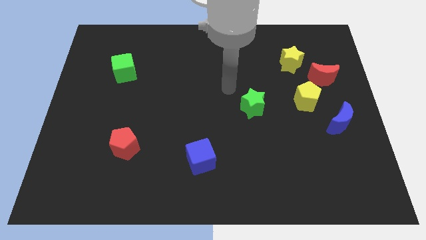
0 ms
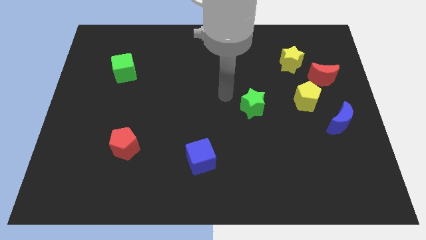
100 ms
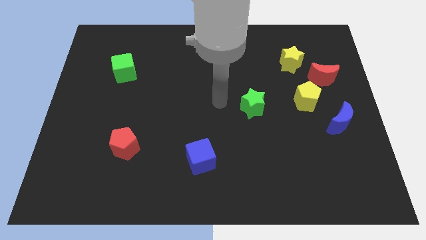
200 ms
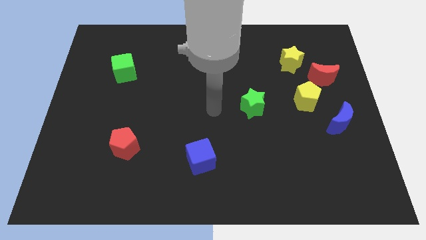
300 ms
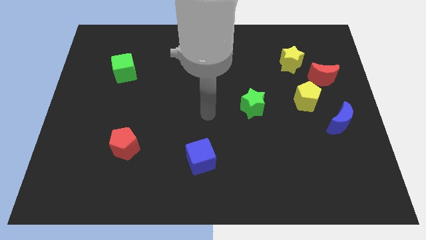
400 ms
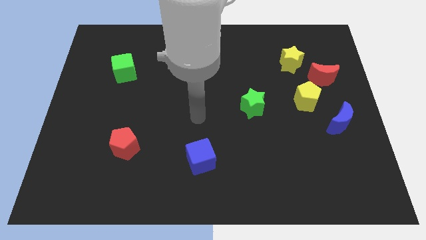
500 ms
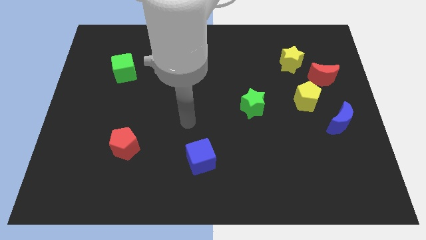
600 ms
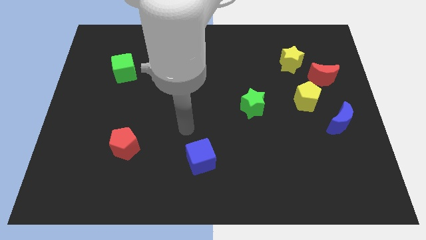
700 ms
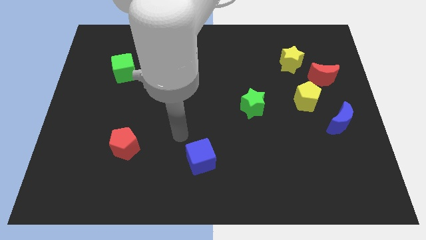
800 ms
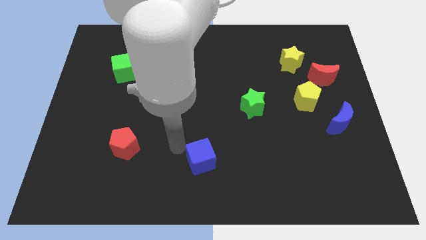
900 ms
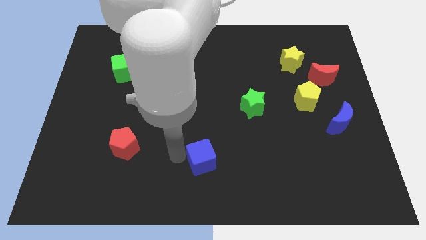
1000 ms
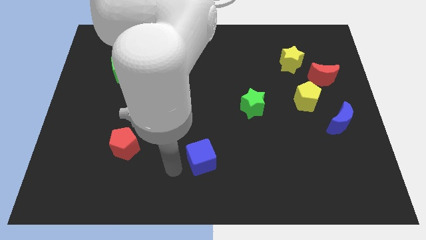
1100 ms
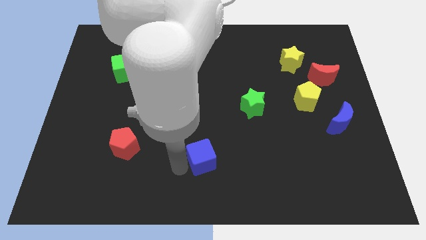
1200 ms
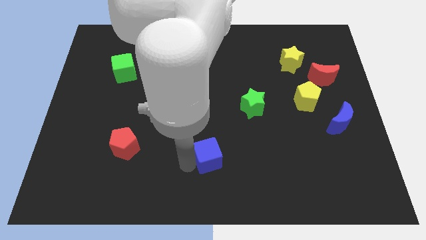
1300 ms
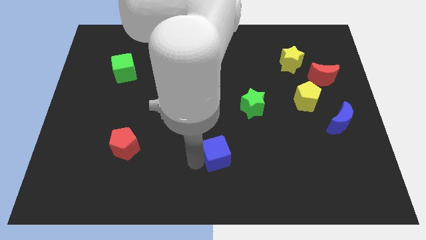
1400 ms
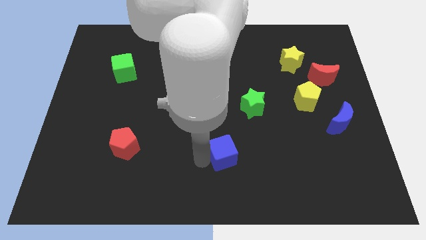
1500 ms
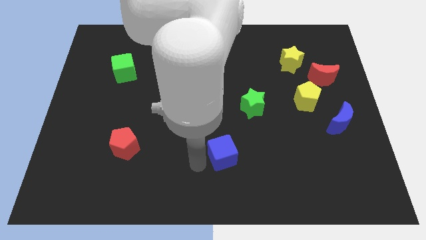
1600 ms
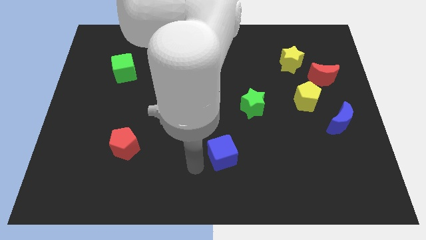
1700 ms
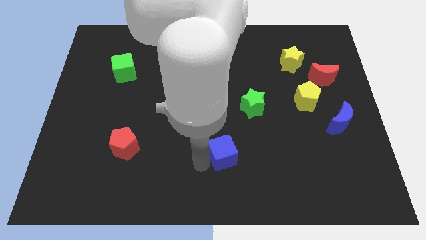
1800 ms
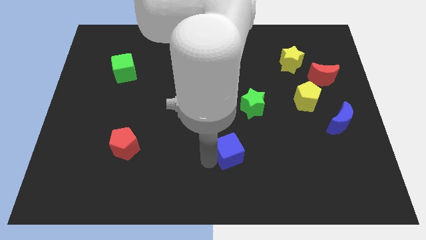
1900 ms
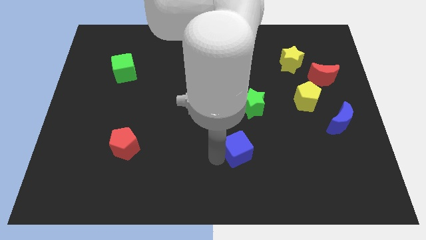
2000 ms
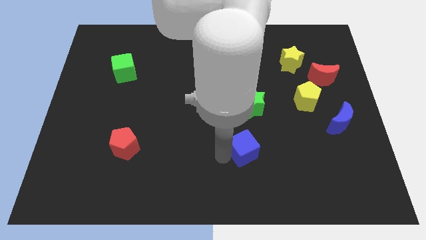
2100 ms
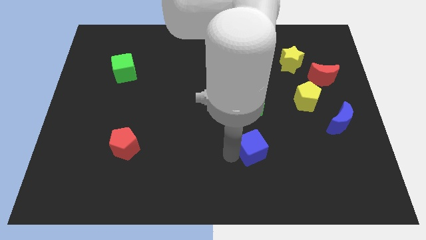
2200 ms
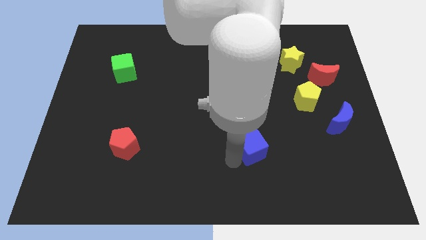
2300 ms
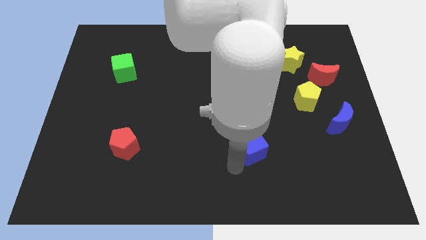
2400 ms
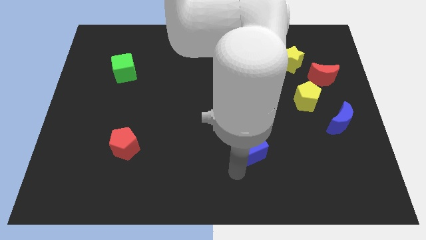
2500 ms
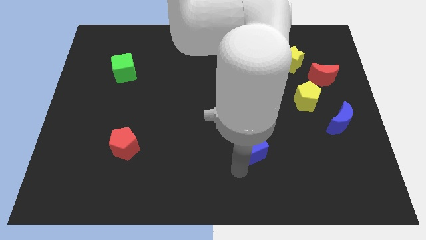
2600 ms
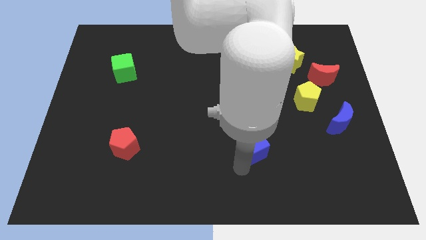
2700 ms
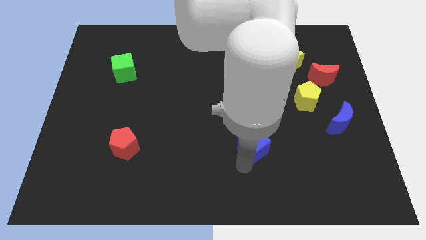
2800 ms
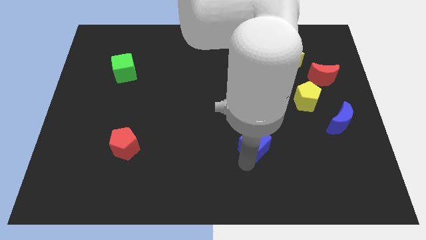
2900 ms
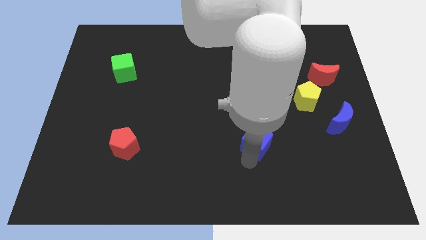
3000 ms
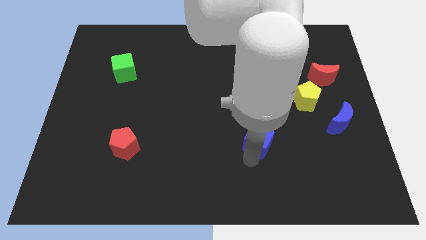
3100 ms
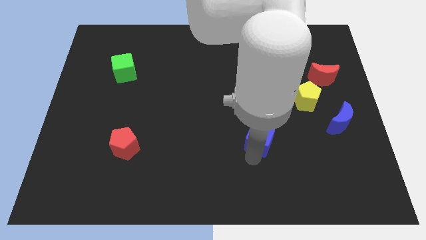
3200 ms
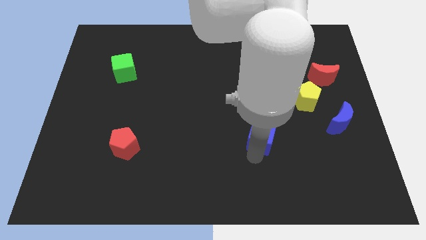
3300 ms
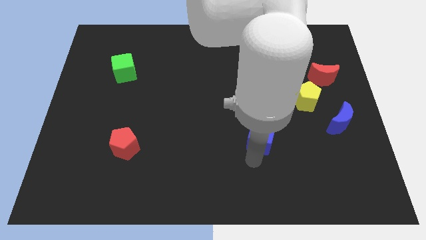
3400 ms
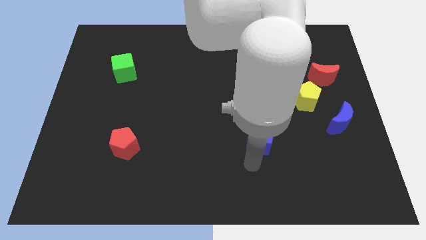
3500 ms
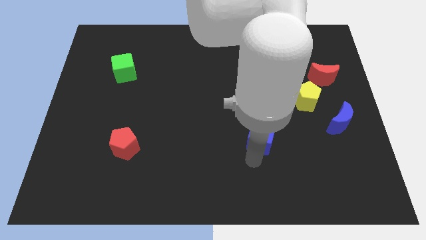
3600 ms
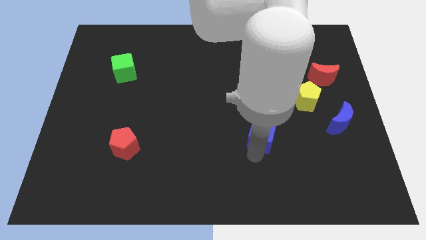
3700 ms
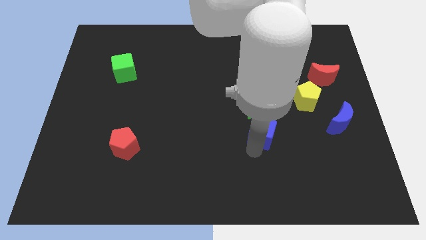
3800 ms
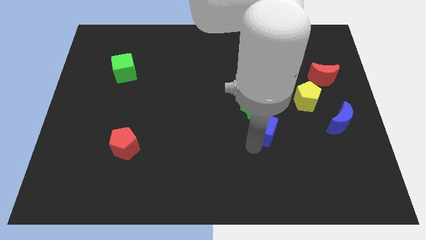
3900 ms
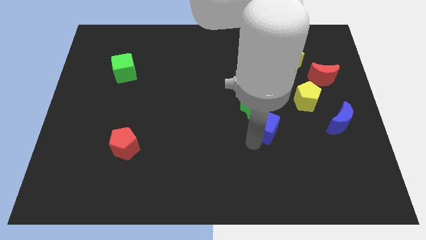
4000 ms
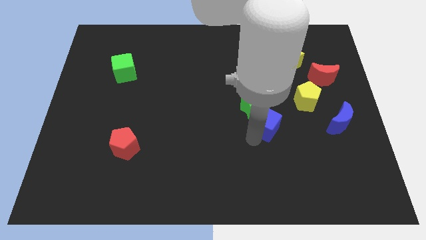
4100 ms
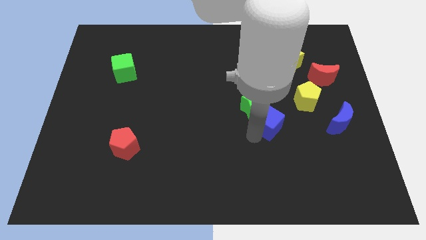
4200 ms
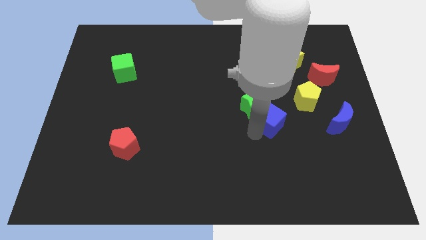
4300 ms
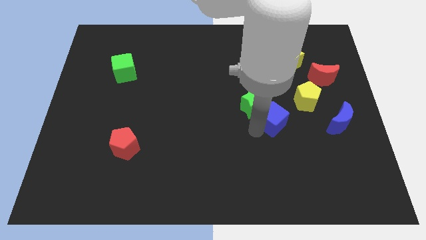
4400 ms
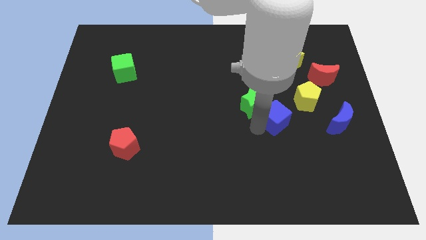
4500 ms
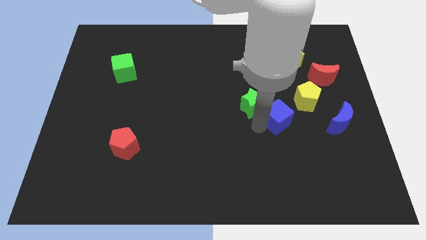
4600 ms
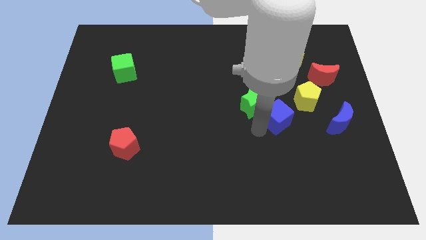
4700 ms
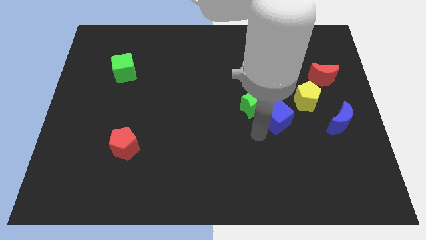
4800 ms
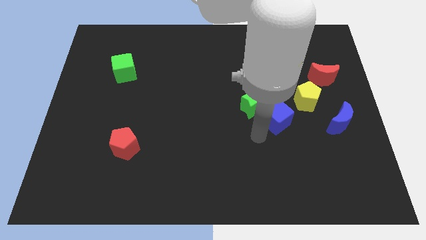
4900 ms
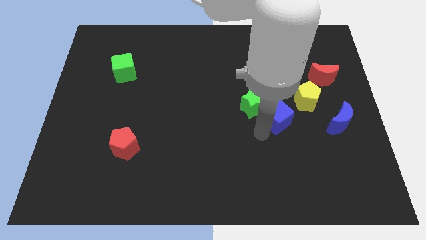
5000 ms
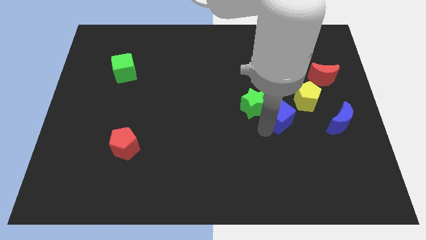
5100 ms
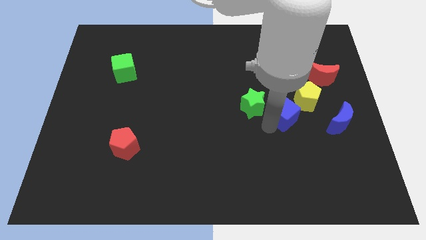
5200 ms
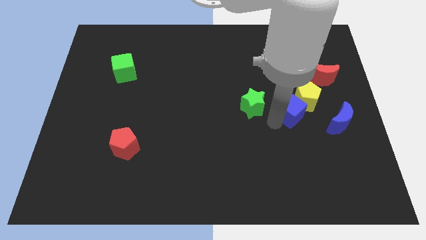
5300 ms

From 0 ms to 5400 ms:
move the blue cube next to the yellow pentagon

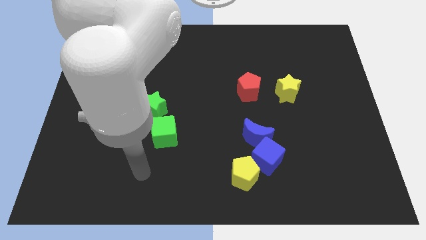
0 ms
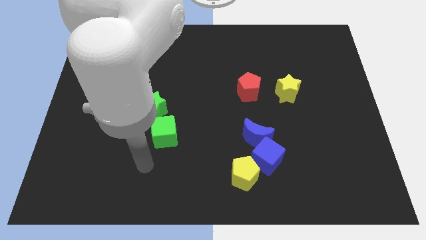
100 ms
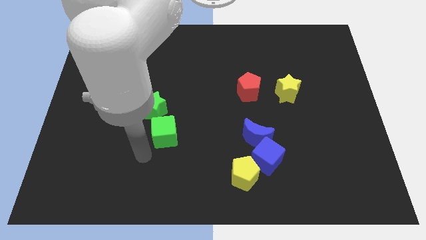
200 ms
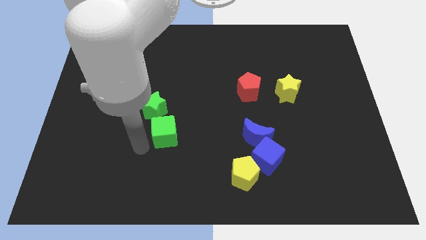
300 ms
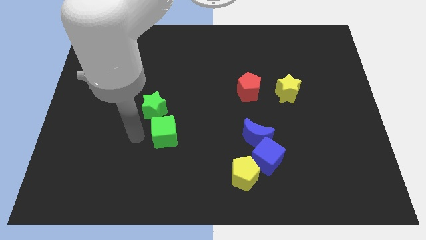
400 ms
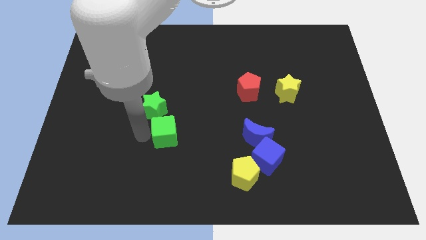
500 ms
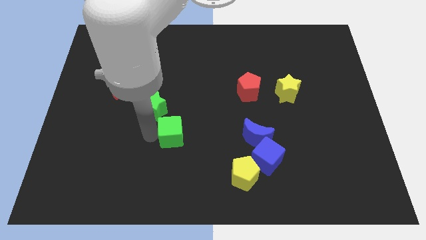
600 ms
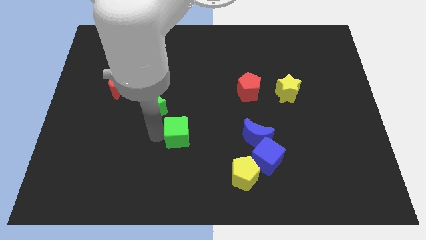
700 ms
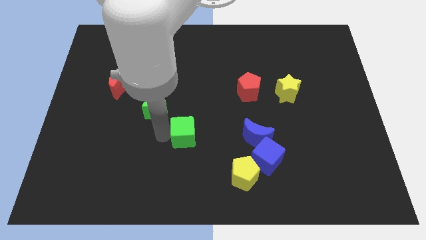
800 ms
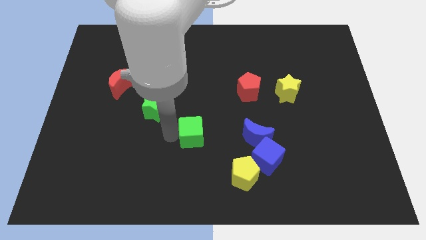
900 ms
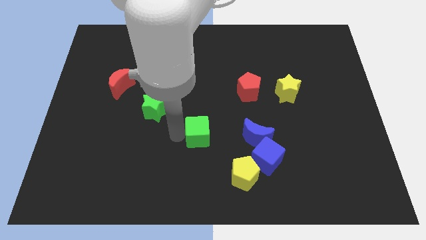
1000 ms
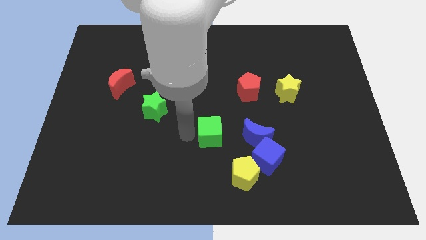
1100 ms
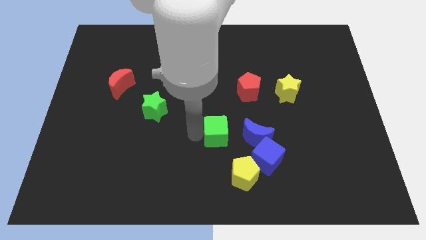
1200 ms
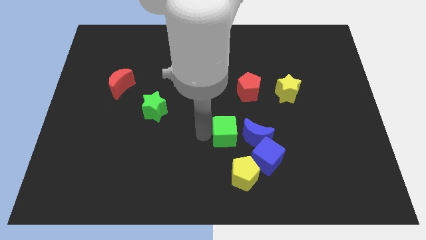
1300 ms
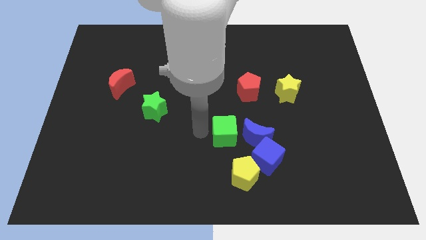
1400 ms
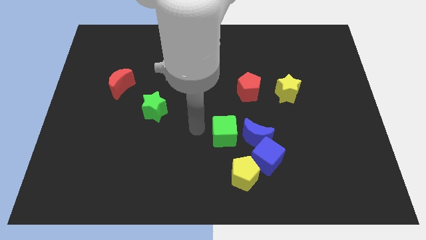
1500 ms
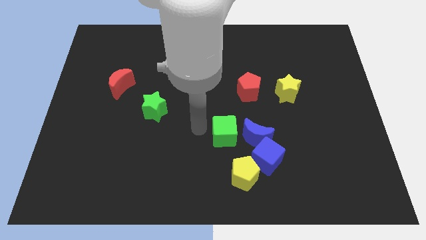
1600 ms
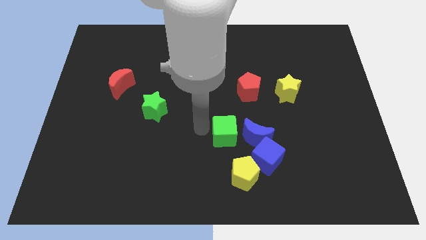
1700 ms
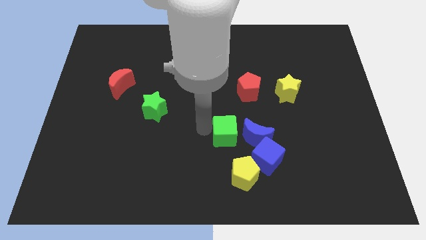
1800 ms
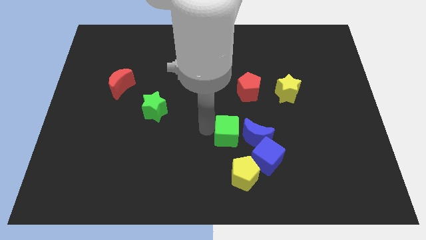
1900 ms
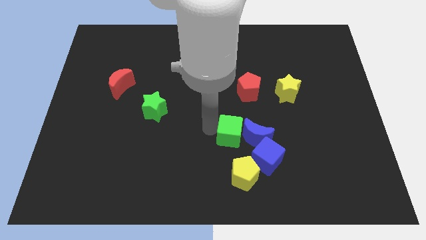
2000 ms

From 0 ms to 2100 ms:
put the green cube to the blue moon

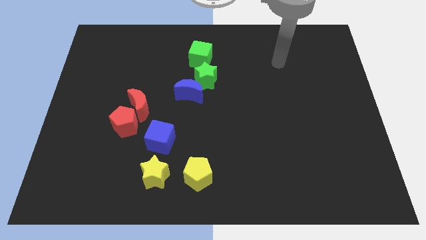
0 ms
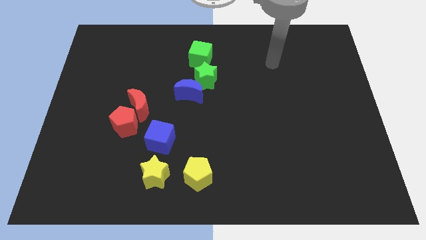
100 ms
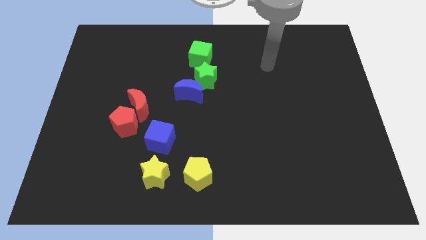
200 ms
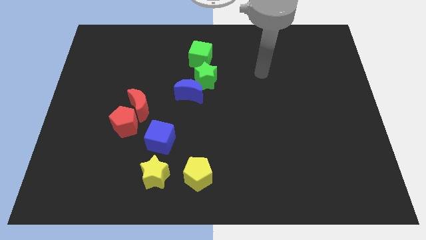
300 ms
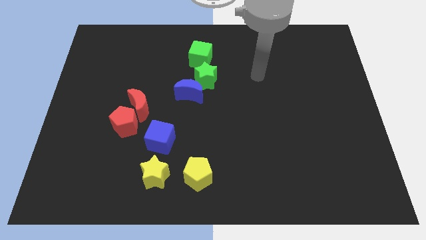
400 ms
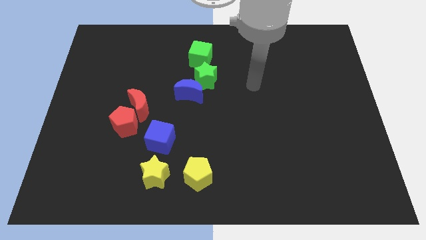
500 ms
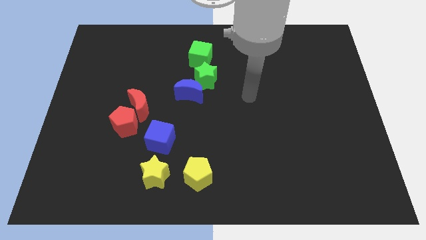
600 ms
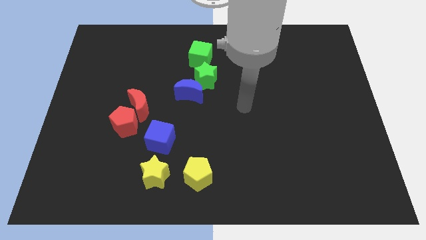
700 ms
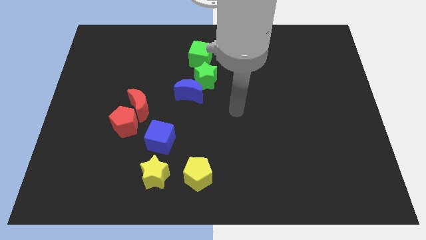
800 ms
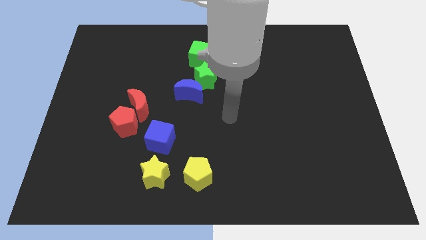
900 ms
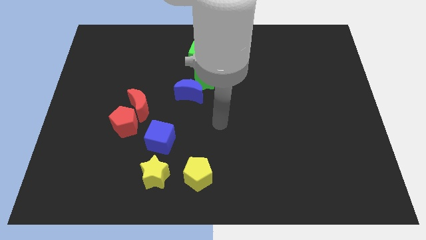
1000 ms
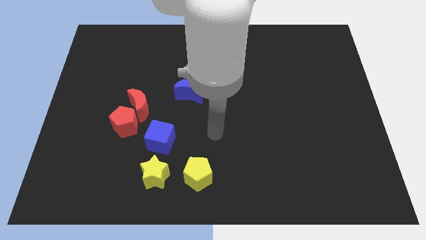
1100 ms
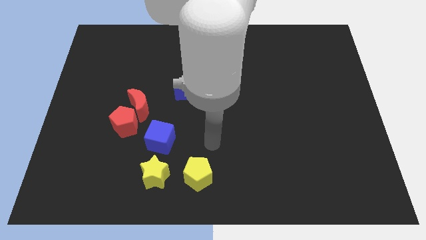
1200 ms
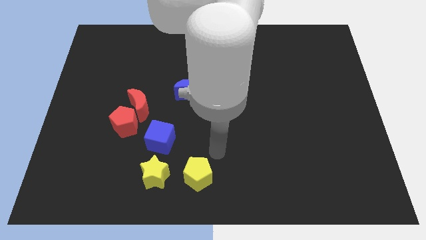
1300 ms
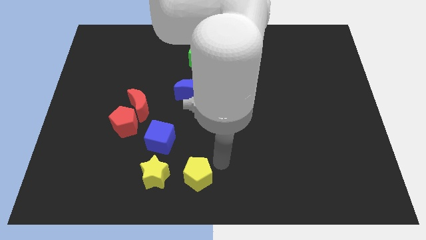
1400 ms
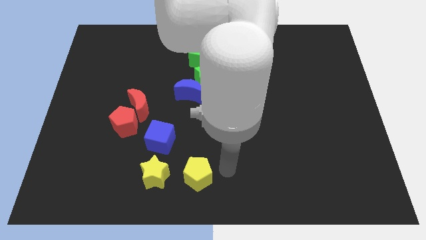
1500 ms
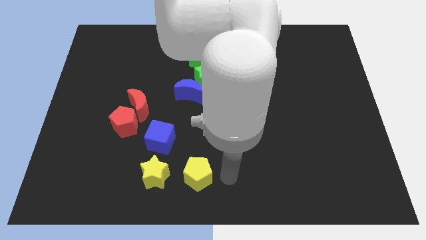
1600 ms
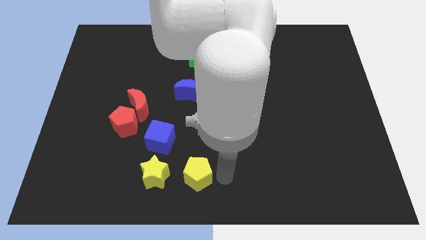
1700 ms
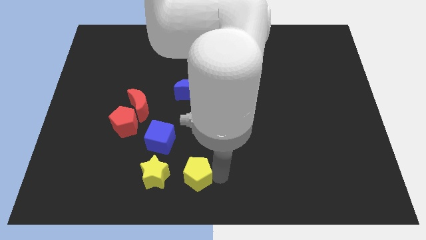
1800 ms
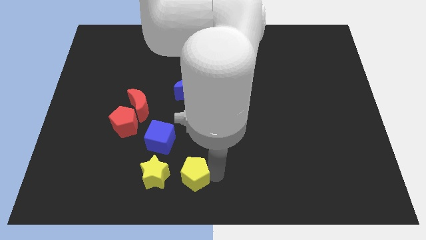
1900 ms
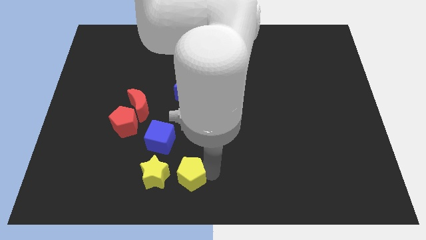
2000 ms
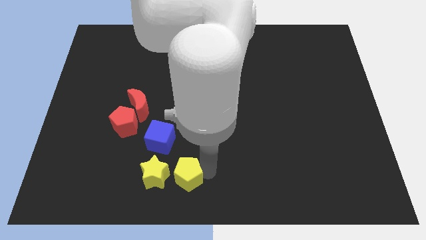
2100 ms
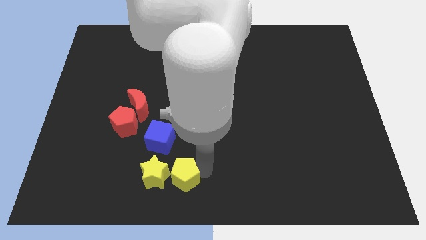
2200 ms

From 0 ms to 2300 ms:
slide the yellow pentagon to the yellow star
